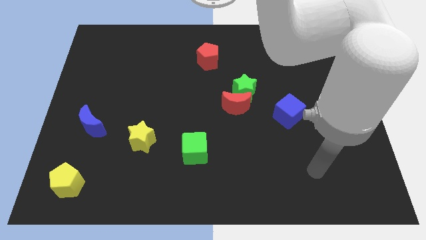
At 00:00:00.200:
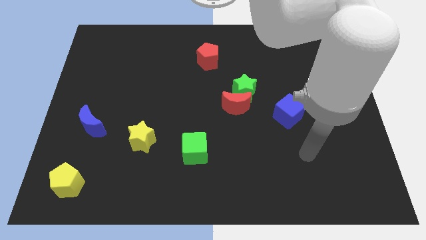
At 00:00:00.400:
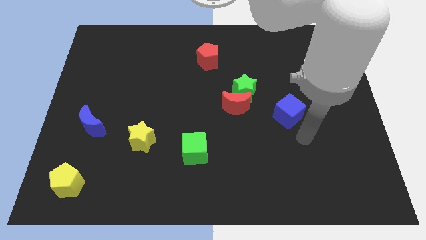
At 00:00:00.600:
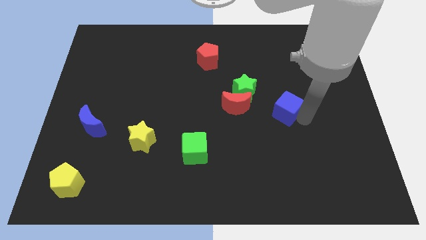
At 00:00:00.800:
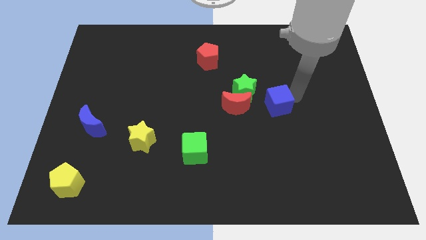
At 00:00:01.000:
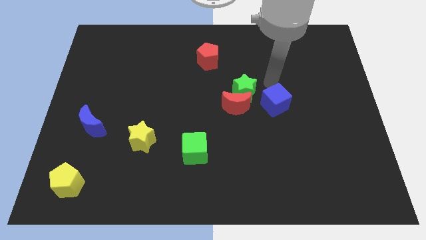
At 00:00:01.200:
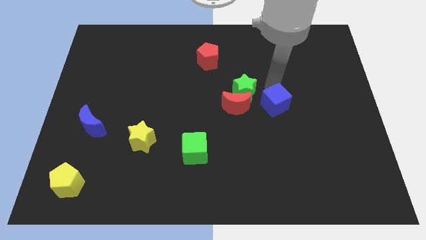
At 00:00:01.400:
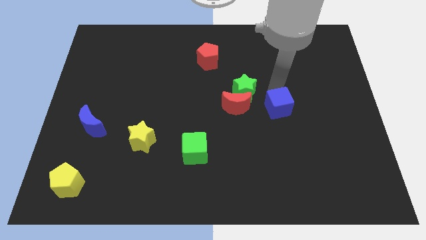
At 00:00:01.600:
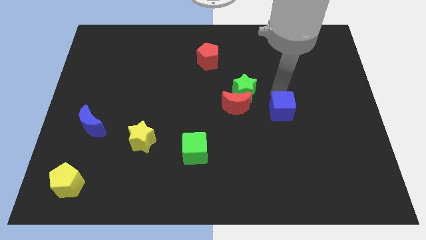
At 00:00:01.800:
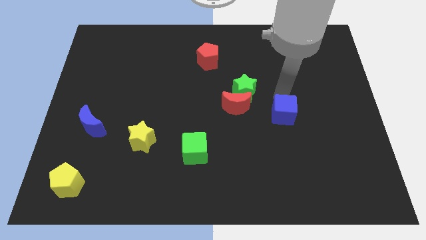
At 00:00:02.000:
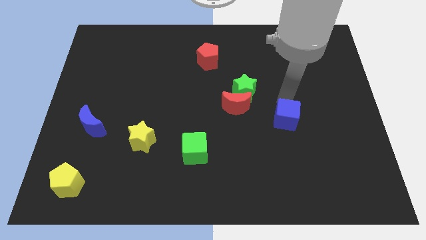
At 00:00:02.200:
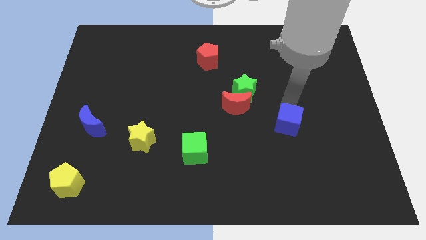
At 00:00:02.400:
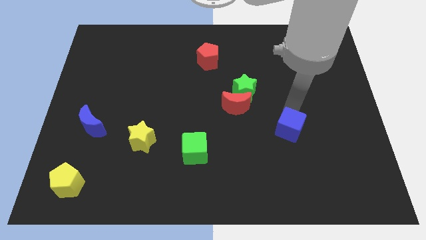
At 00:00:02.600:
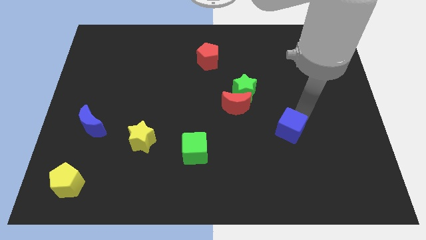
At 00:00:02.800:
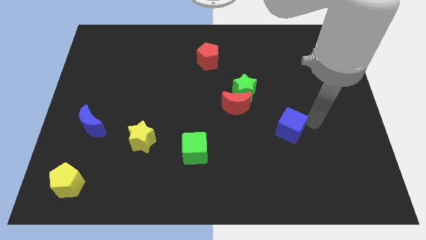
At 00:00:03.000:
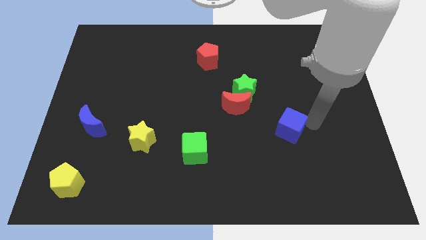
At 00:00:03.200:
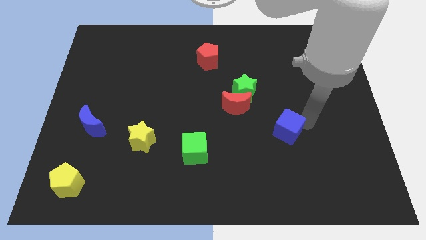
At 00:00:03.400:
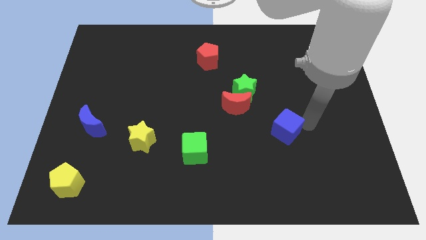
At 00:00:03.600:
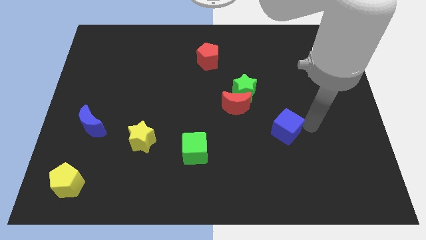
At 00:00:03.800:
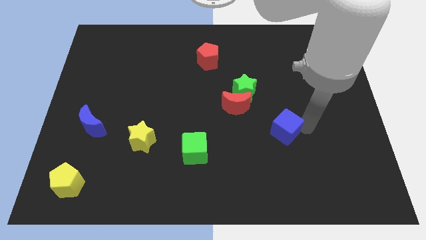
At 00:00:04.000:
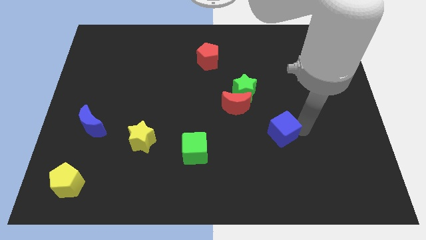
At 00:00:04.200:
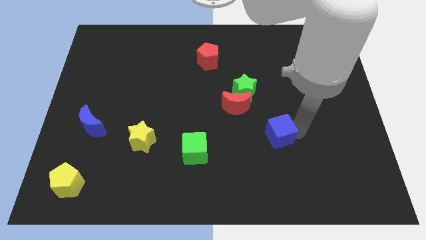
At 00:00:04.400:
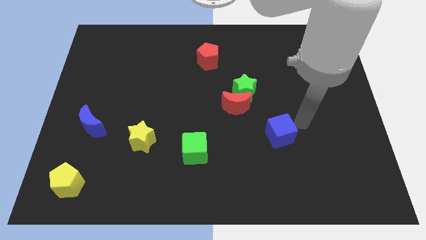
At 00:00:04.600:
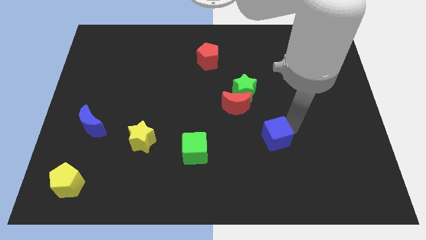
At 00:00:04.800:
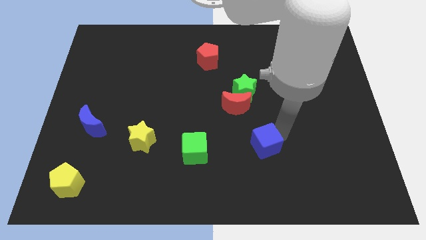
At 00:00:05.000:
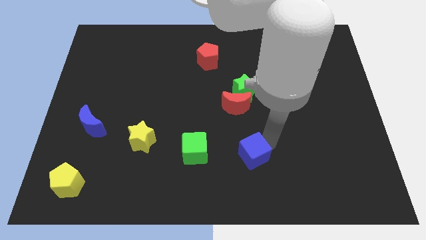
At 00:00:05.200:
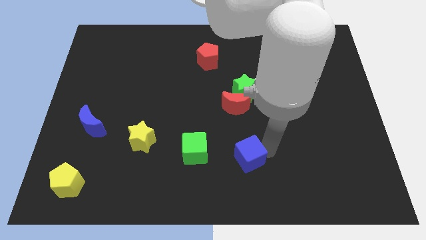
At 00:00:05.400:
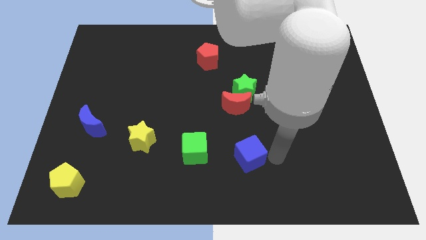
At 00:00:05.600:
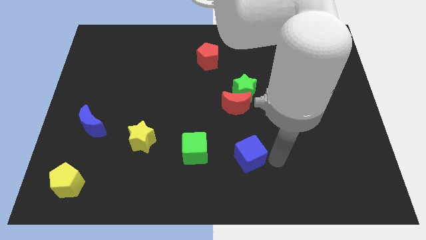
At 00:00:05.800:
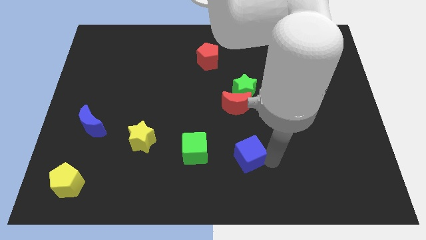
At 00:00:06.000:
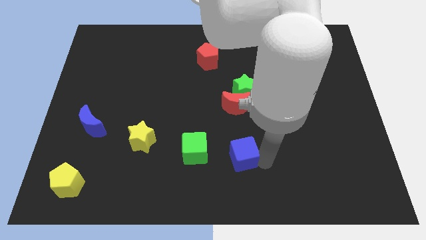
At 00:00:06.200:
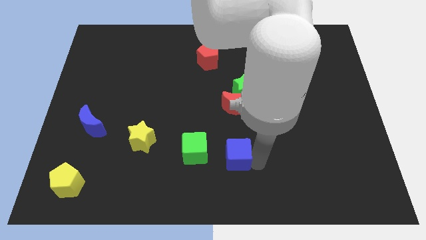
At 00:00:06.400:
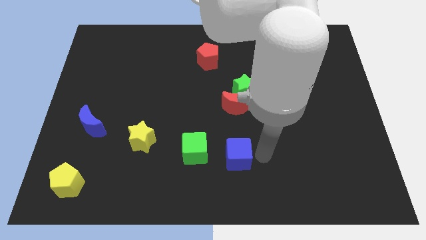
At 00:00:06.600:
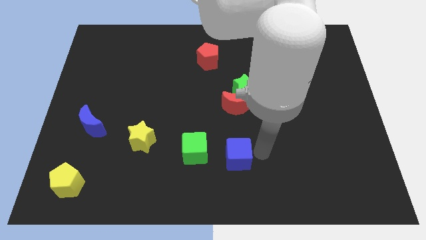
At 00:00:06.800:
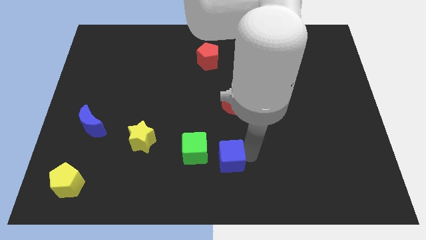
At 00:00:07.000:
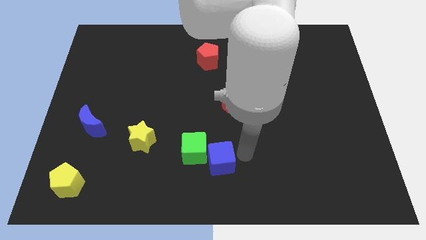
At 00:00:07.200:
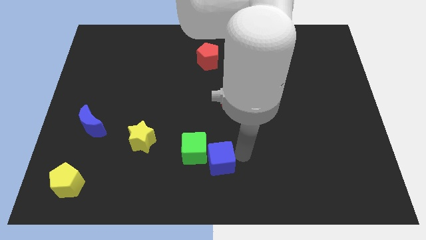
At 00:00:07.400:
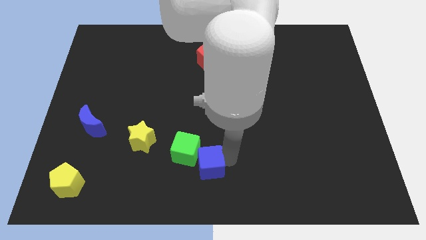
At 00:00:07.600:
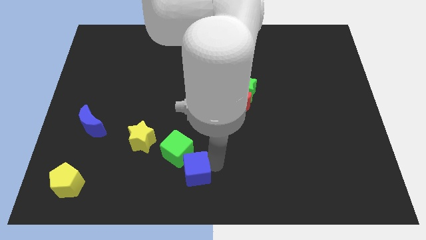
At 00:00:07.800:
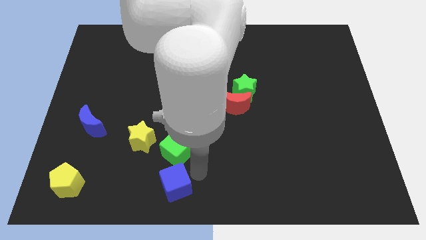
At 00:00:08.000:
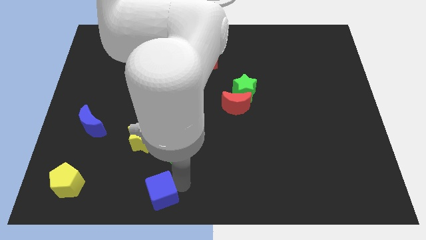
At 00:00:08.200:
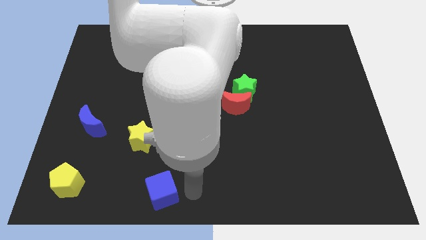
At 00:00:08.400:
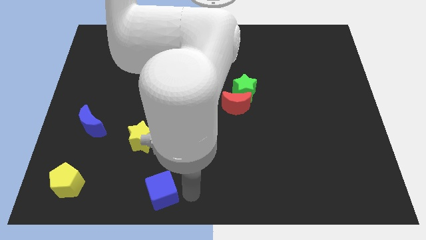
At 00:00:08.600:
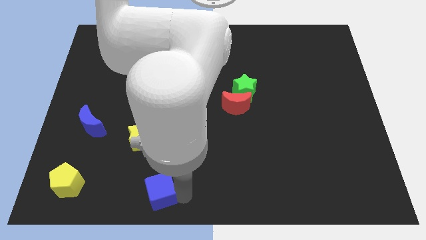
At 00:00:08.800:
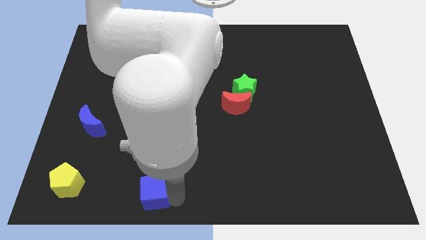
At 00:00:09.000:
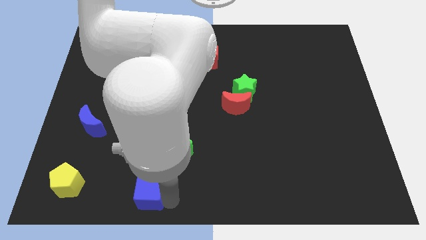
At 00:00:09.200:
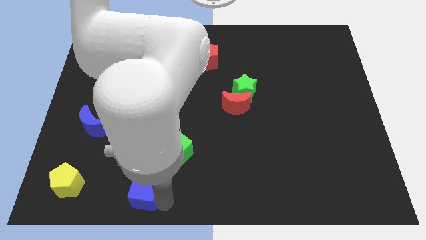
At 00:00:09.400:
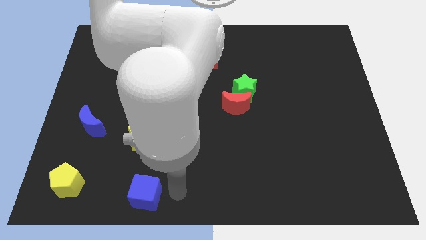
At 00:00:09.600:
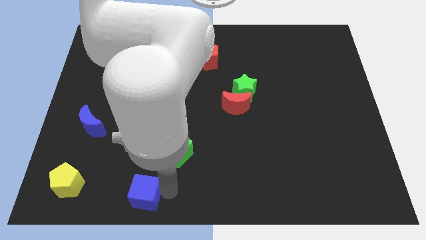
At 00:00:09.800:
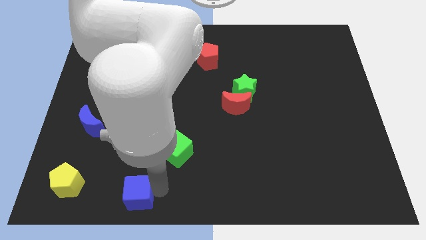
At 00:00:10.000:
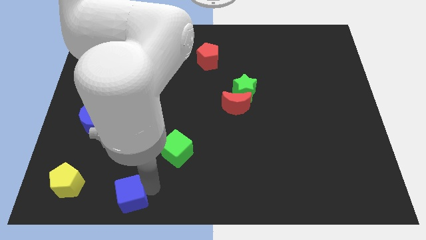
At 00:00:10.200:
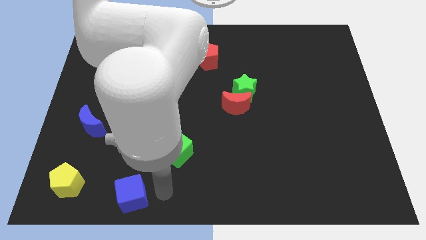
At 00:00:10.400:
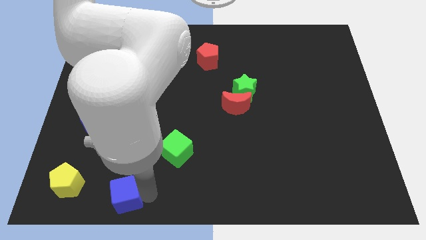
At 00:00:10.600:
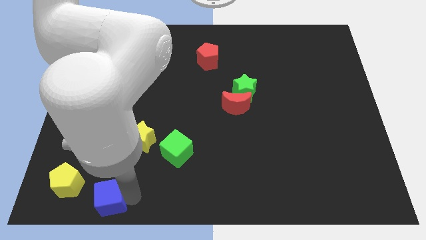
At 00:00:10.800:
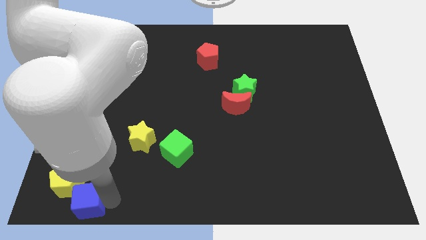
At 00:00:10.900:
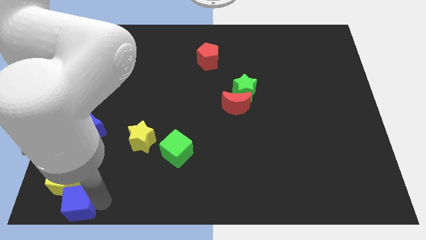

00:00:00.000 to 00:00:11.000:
move the blue cube to the lower left corner
